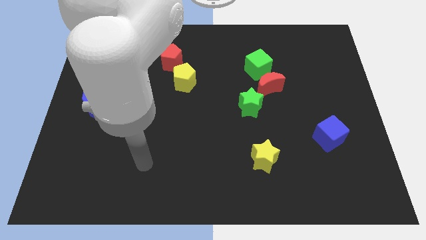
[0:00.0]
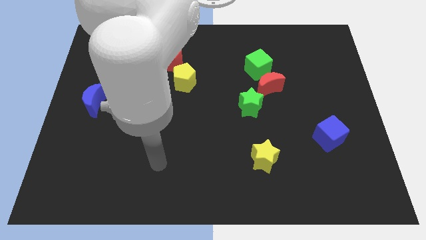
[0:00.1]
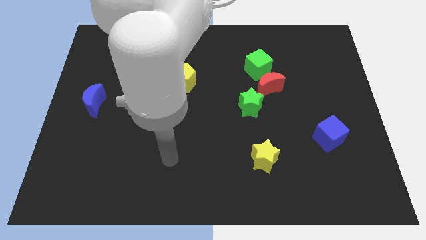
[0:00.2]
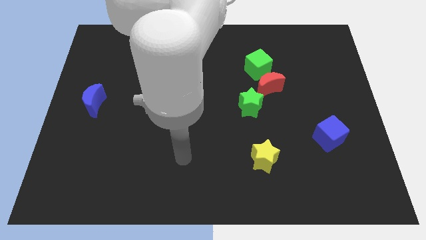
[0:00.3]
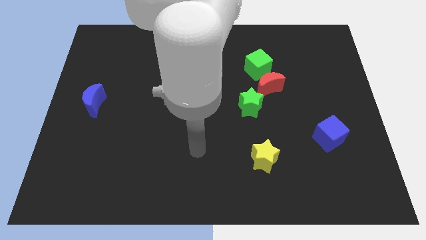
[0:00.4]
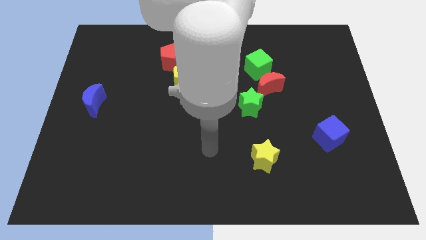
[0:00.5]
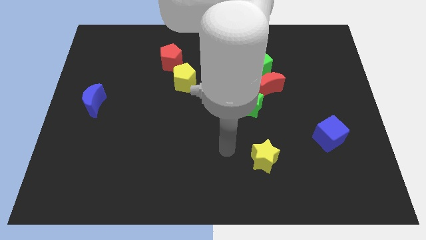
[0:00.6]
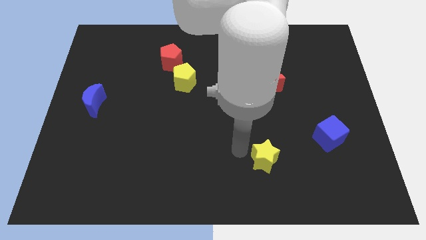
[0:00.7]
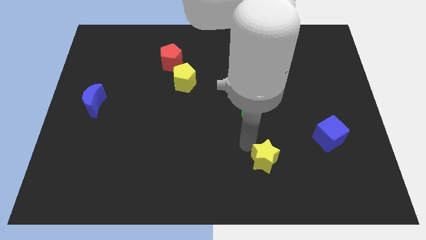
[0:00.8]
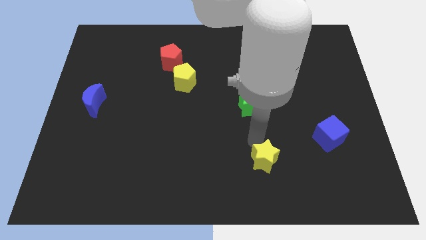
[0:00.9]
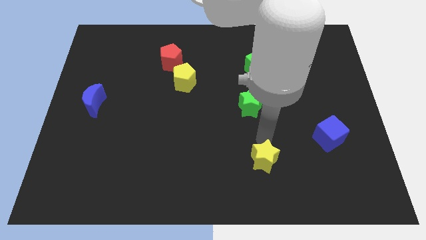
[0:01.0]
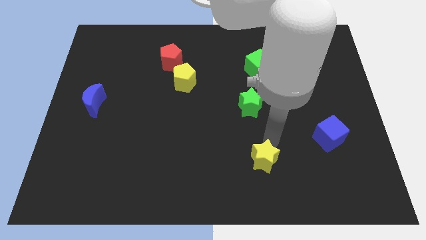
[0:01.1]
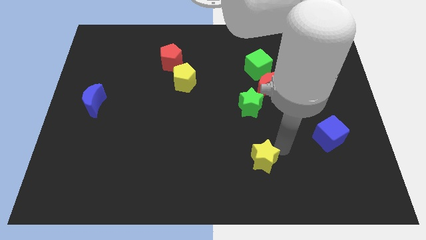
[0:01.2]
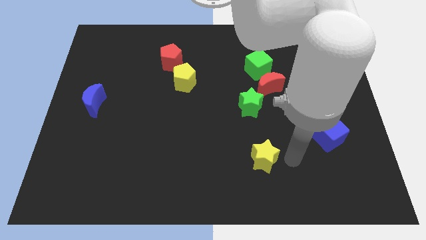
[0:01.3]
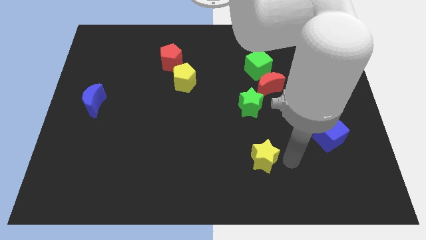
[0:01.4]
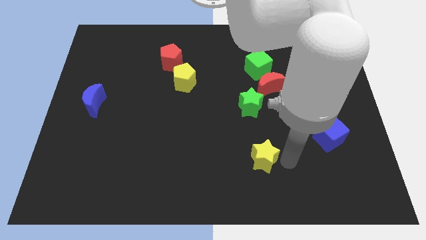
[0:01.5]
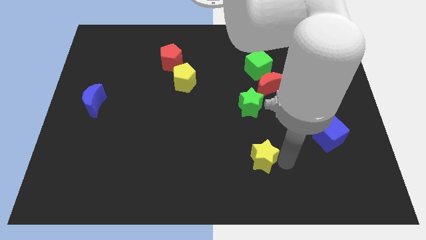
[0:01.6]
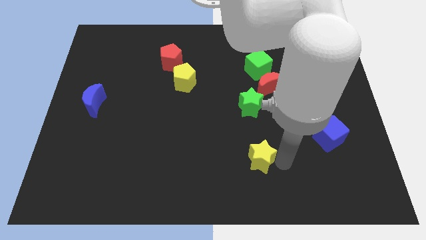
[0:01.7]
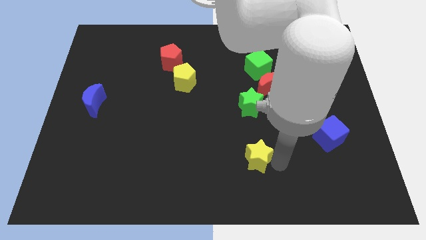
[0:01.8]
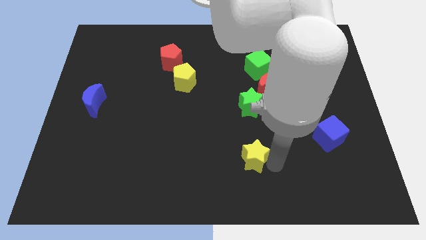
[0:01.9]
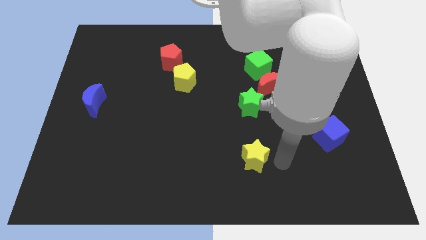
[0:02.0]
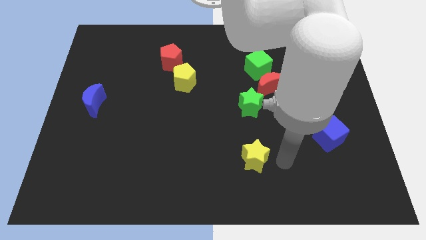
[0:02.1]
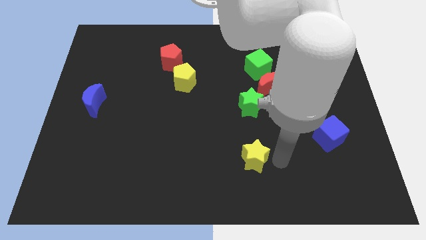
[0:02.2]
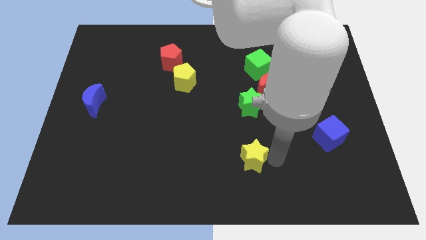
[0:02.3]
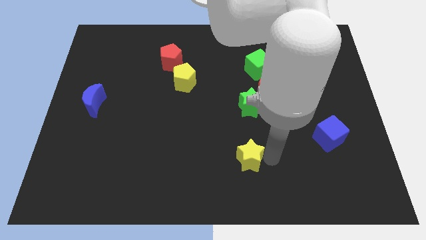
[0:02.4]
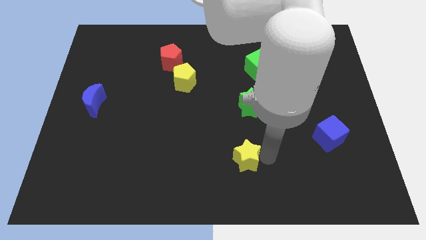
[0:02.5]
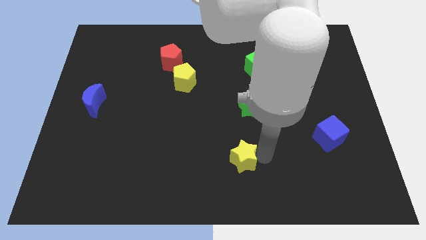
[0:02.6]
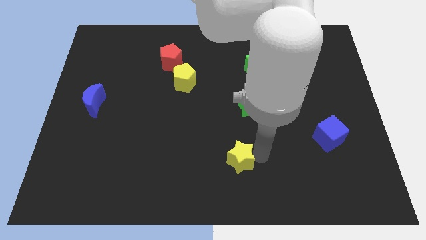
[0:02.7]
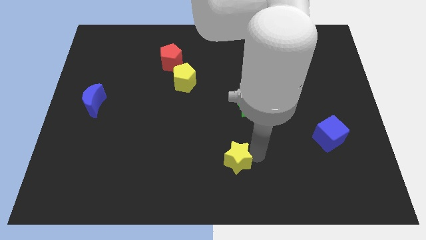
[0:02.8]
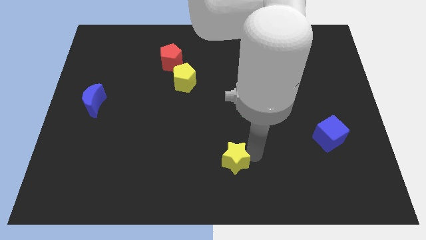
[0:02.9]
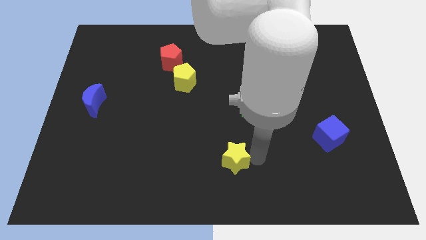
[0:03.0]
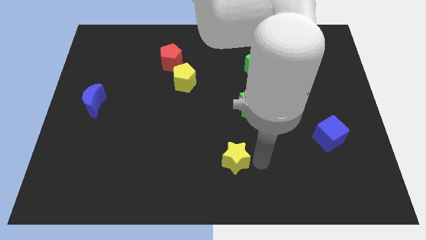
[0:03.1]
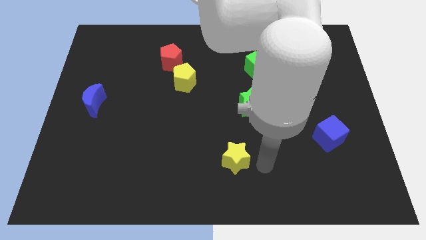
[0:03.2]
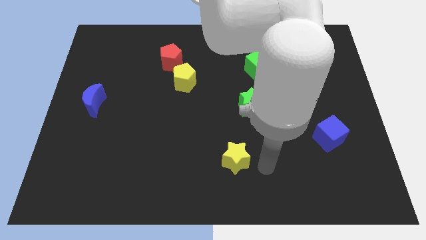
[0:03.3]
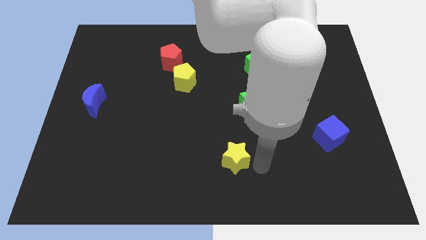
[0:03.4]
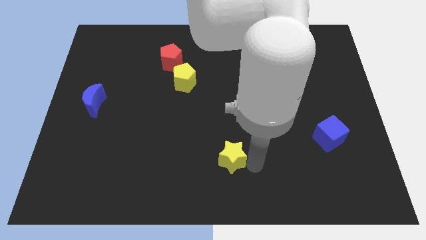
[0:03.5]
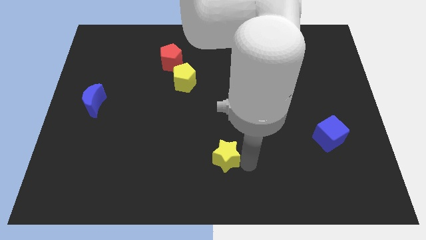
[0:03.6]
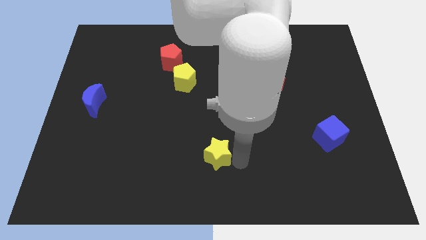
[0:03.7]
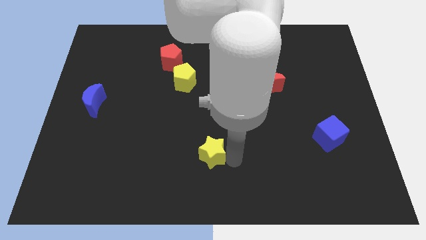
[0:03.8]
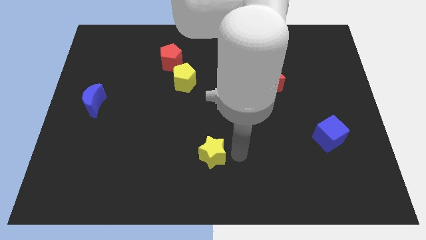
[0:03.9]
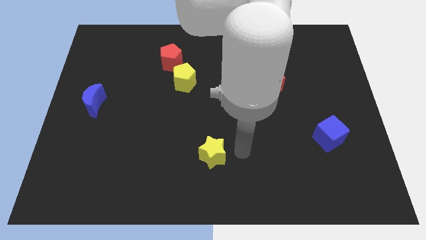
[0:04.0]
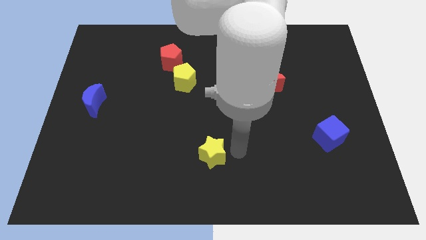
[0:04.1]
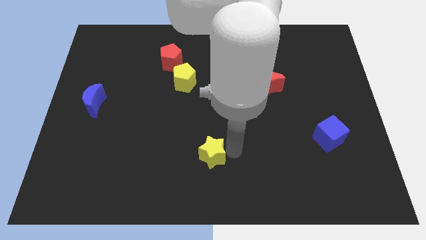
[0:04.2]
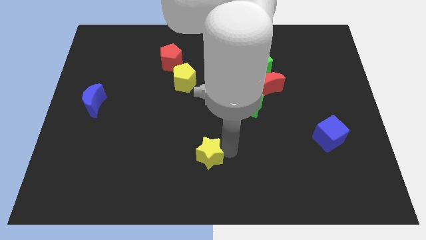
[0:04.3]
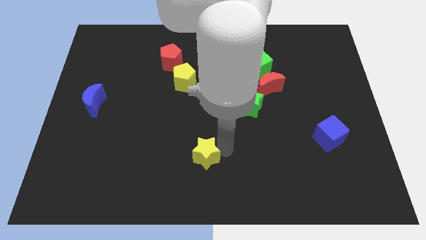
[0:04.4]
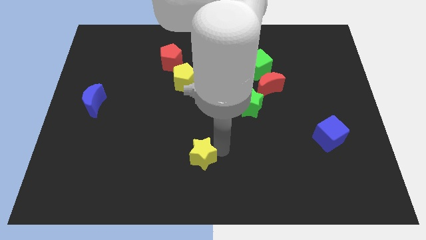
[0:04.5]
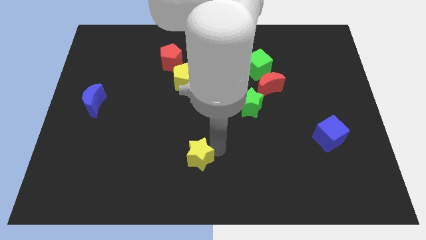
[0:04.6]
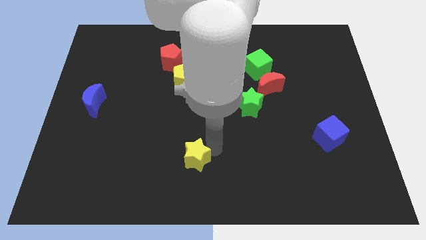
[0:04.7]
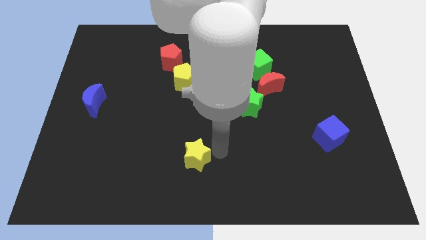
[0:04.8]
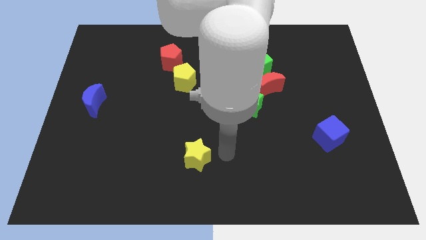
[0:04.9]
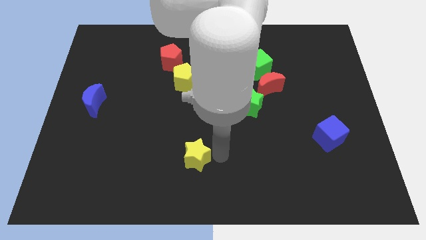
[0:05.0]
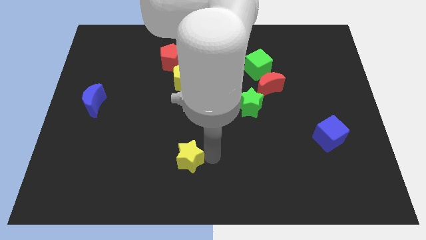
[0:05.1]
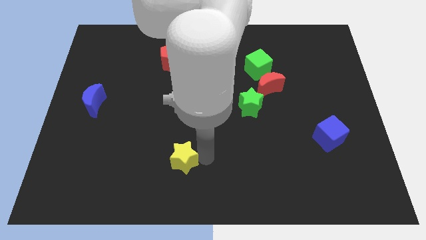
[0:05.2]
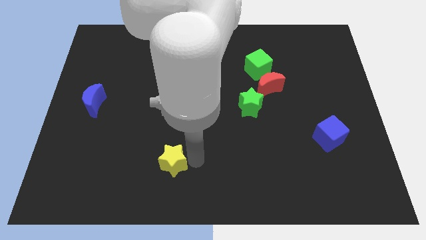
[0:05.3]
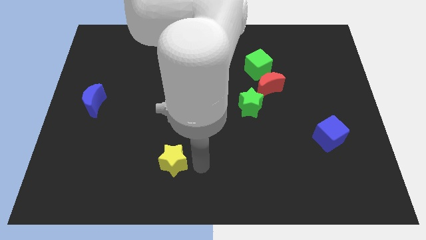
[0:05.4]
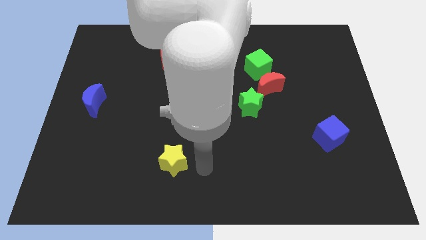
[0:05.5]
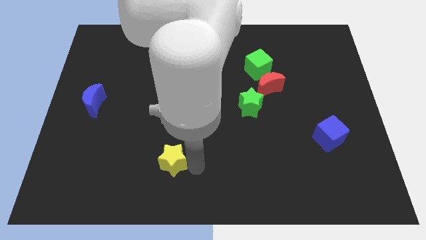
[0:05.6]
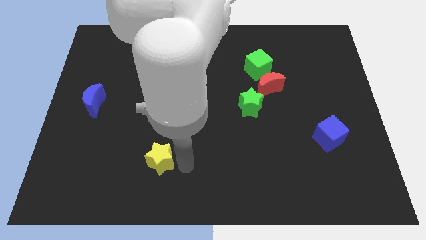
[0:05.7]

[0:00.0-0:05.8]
push the yellow star left

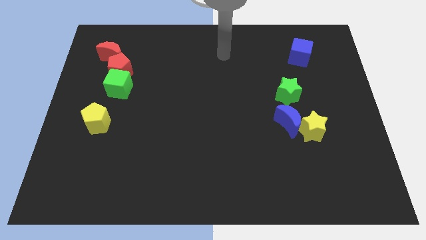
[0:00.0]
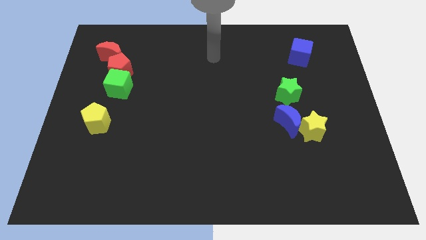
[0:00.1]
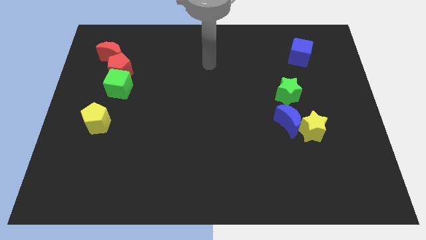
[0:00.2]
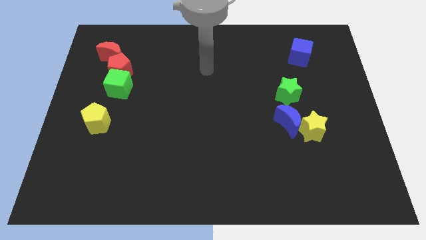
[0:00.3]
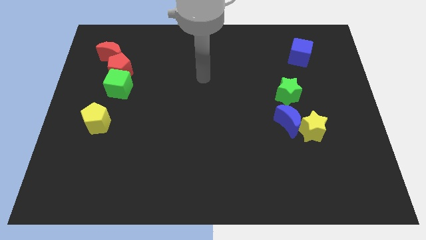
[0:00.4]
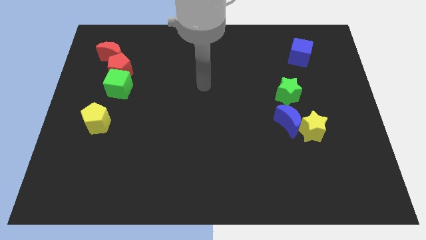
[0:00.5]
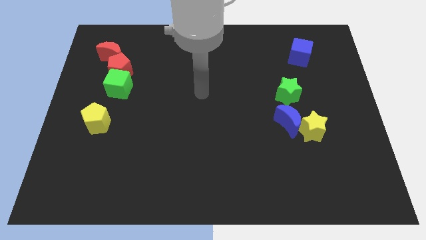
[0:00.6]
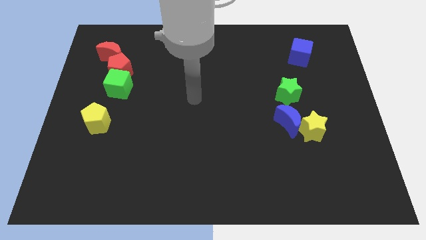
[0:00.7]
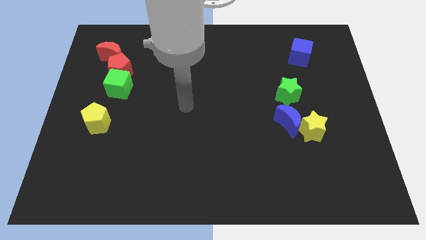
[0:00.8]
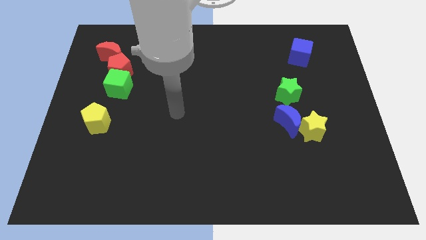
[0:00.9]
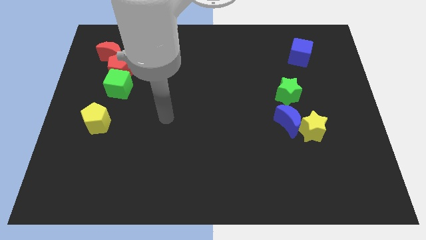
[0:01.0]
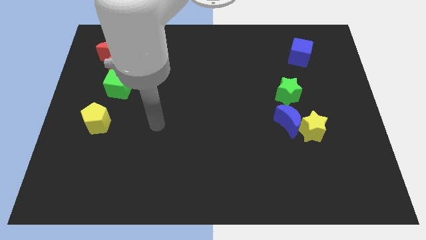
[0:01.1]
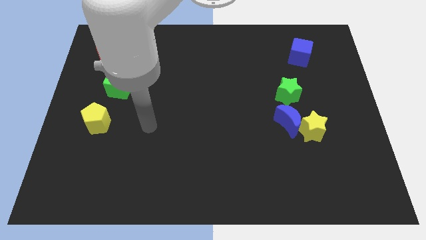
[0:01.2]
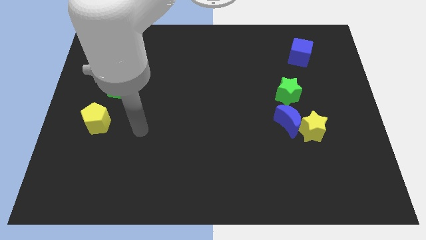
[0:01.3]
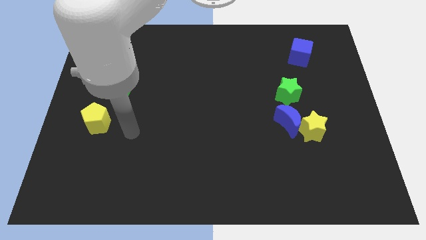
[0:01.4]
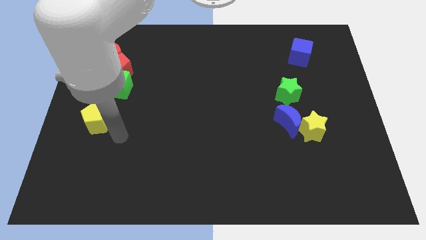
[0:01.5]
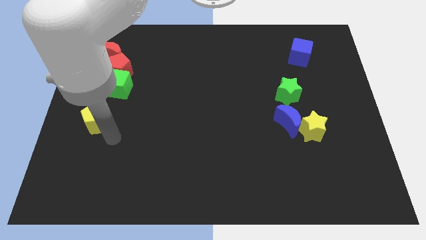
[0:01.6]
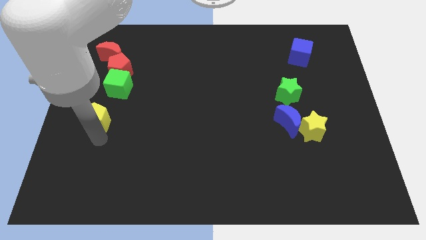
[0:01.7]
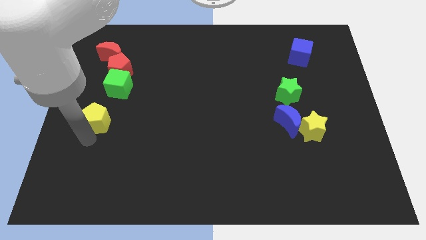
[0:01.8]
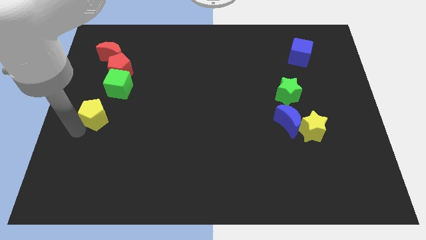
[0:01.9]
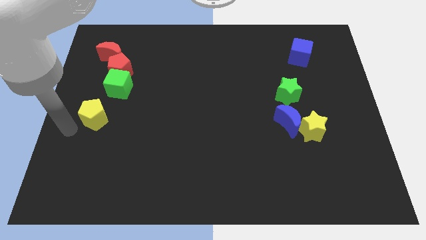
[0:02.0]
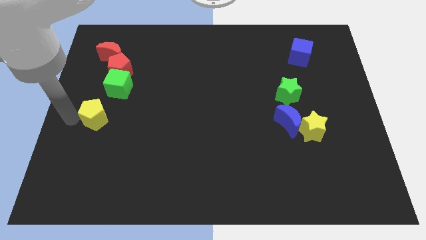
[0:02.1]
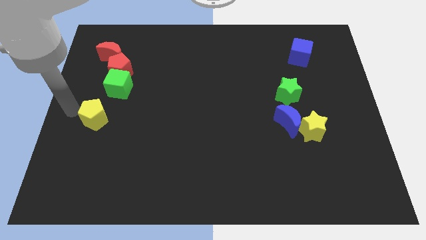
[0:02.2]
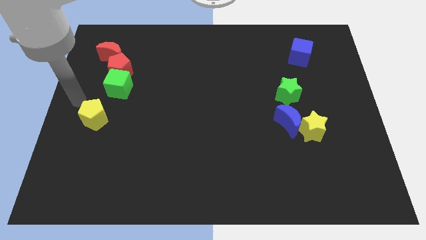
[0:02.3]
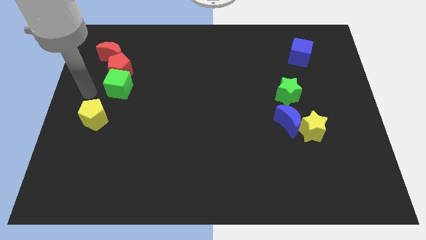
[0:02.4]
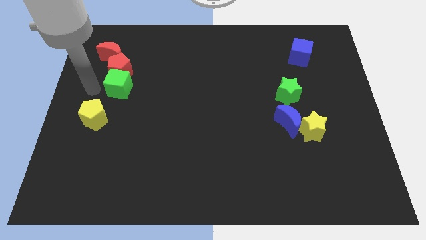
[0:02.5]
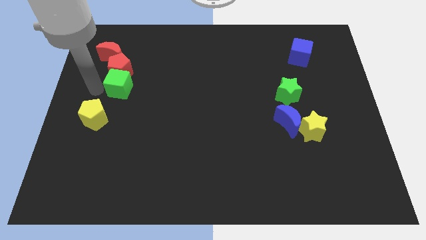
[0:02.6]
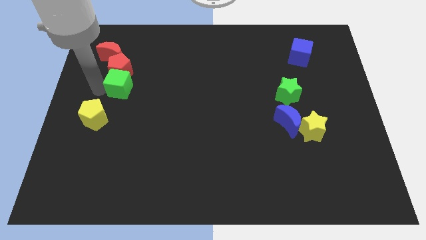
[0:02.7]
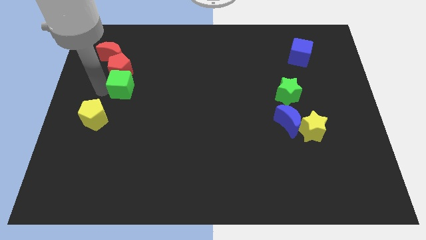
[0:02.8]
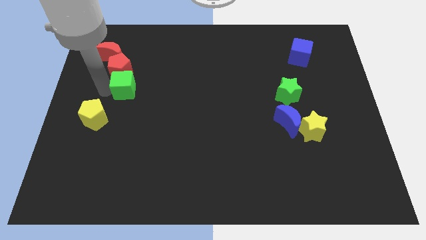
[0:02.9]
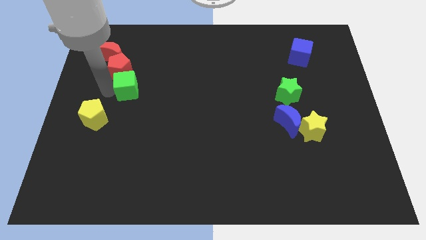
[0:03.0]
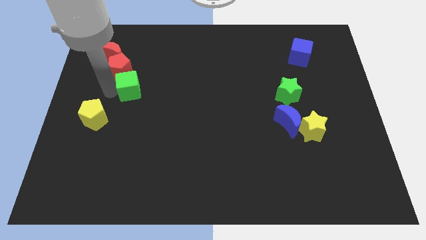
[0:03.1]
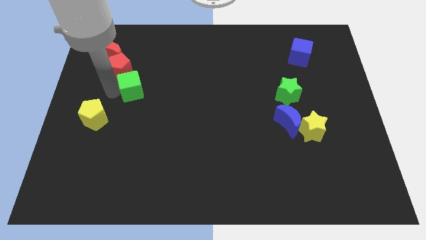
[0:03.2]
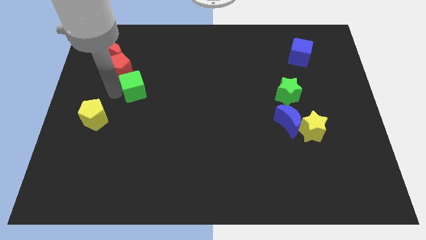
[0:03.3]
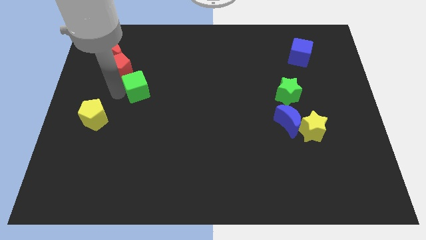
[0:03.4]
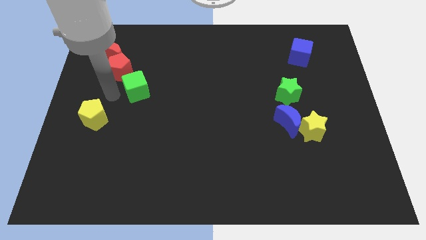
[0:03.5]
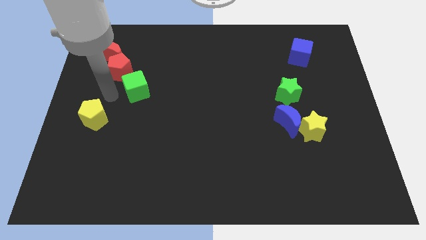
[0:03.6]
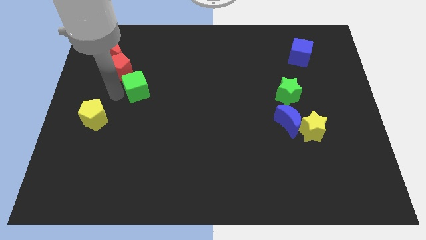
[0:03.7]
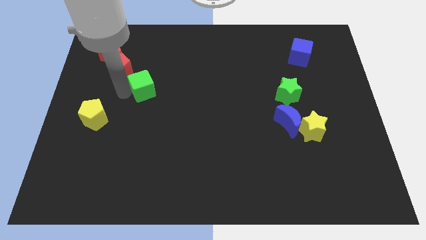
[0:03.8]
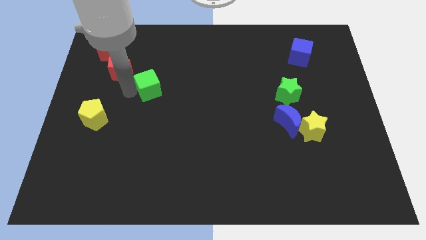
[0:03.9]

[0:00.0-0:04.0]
push the green cube right slightly
